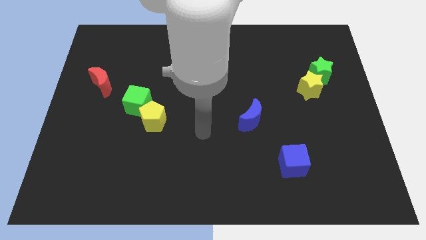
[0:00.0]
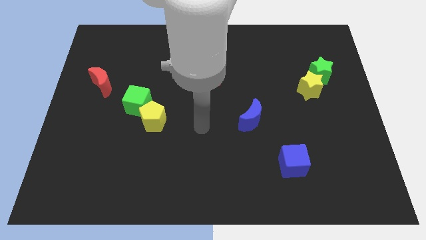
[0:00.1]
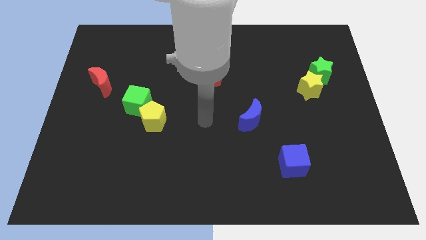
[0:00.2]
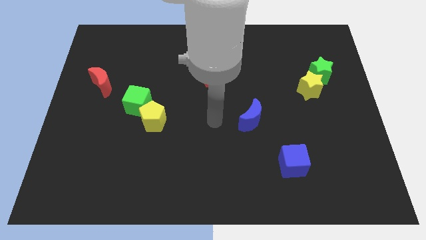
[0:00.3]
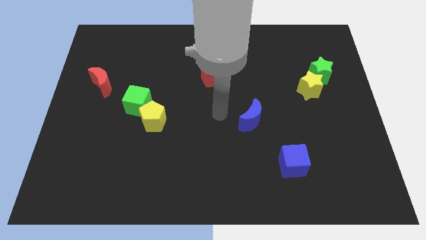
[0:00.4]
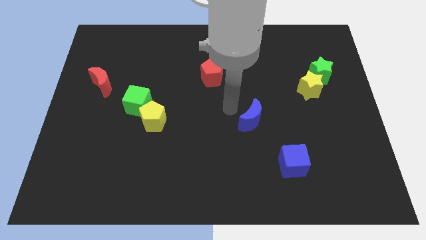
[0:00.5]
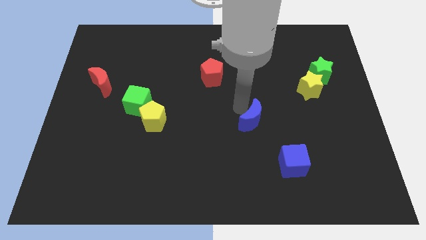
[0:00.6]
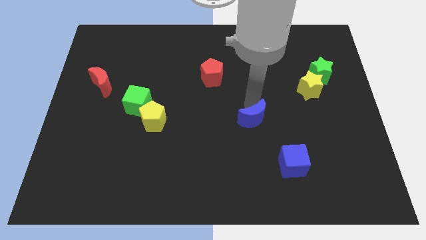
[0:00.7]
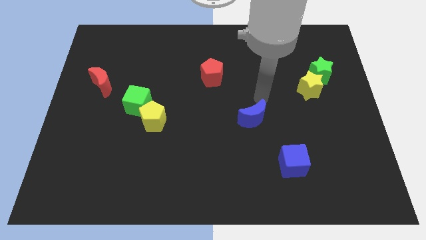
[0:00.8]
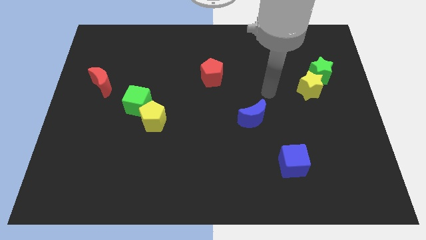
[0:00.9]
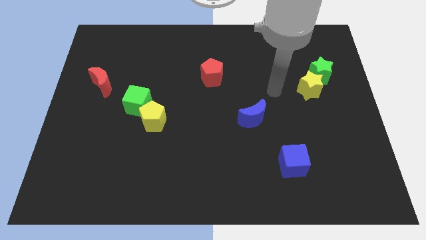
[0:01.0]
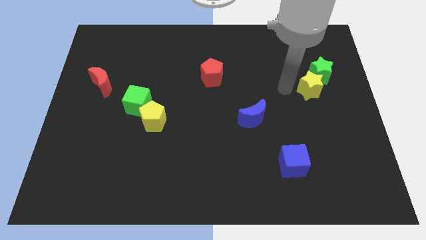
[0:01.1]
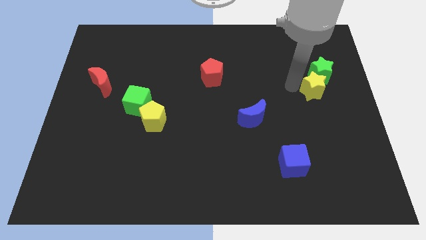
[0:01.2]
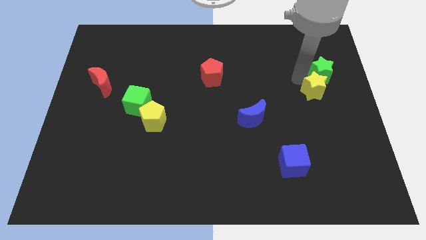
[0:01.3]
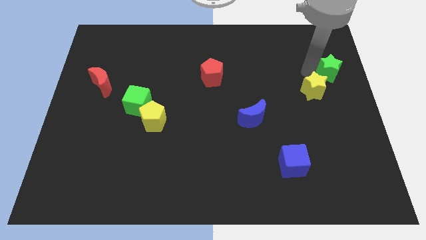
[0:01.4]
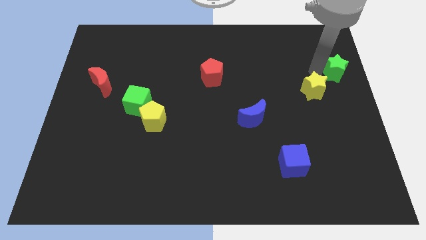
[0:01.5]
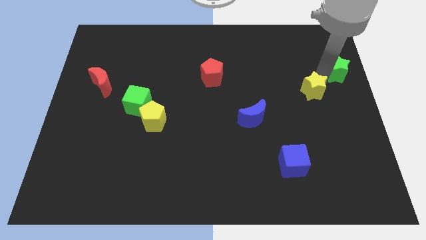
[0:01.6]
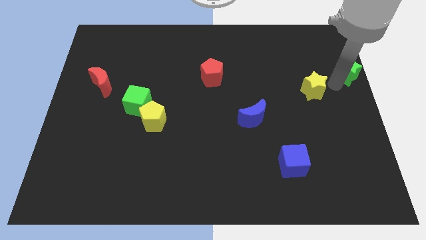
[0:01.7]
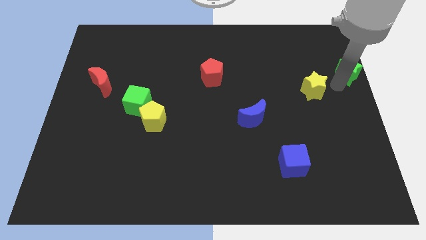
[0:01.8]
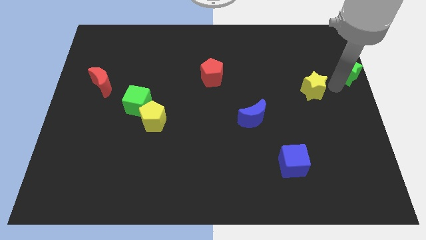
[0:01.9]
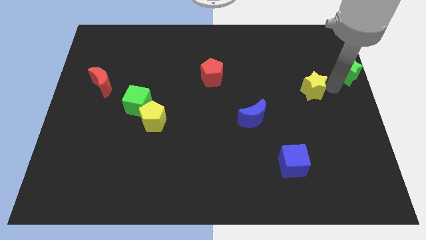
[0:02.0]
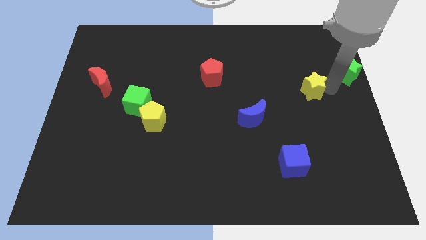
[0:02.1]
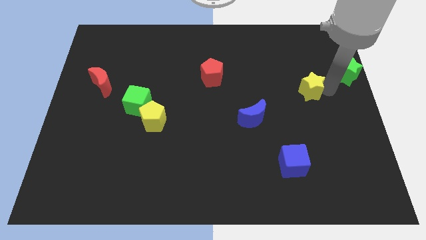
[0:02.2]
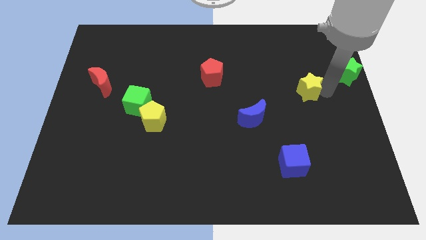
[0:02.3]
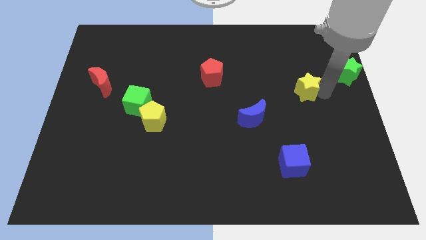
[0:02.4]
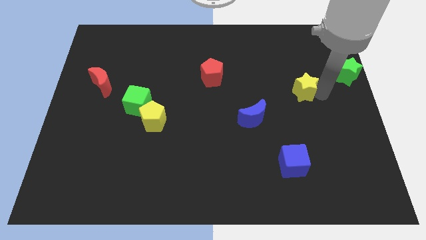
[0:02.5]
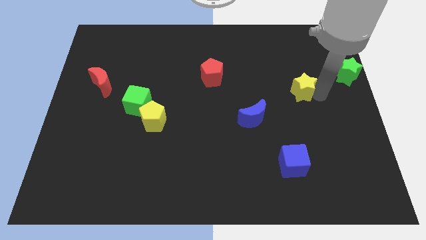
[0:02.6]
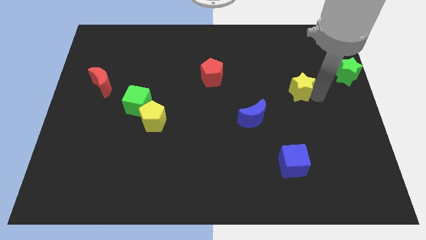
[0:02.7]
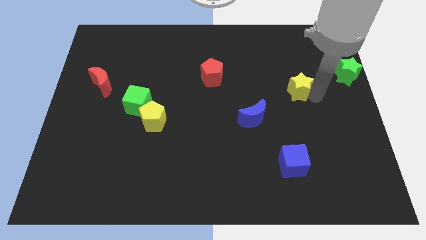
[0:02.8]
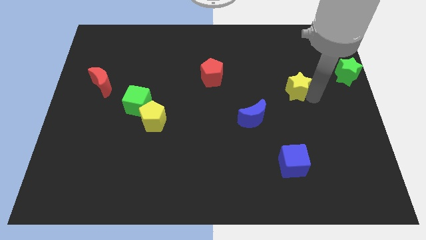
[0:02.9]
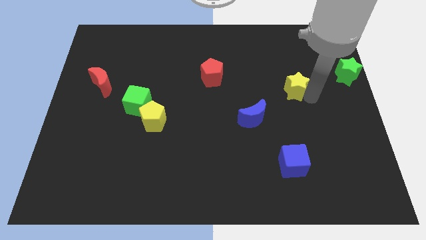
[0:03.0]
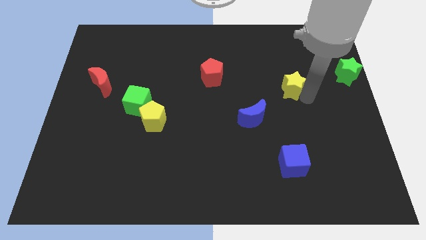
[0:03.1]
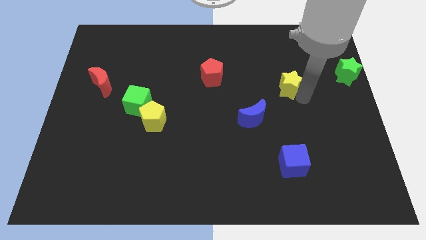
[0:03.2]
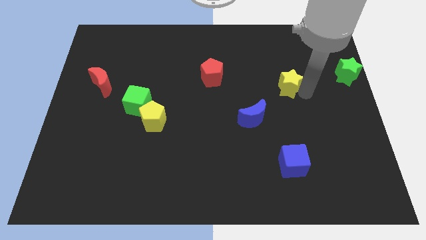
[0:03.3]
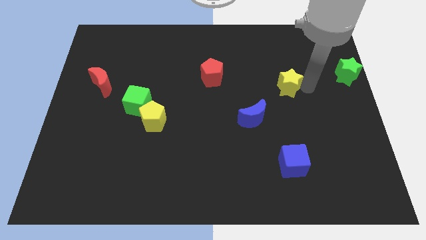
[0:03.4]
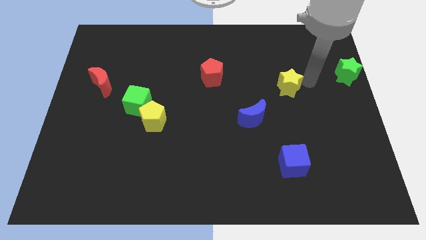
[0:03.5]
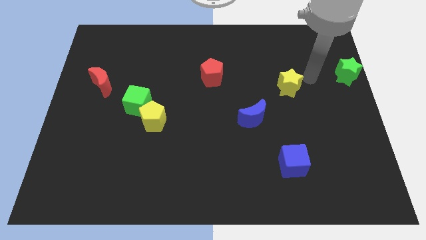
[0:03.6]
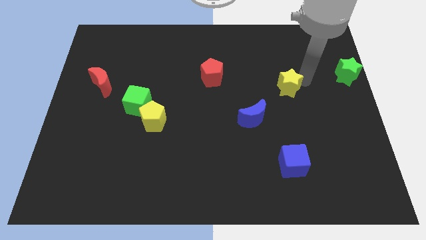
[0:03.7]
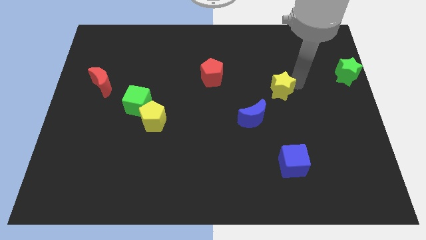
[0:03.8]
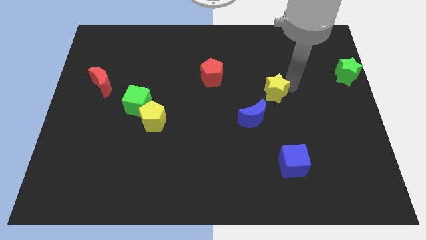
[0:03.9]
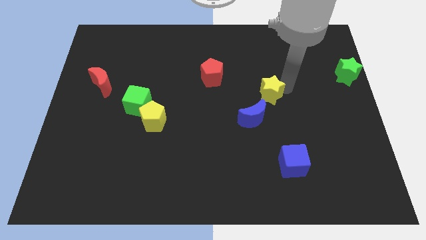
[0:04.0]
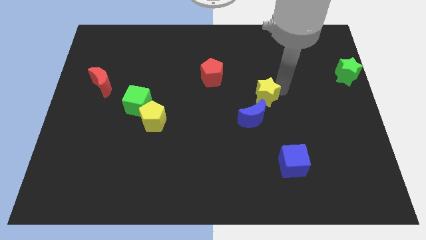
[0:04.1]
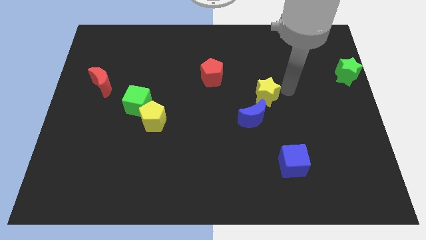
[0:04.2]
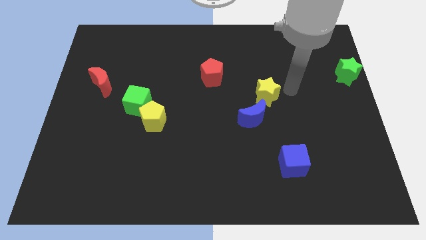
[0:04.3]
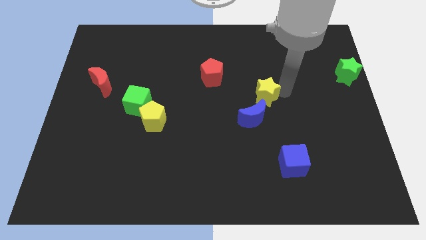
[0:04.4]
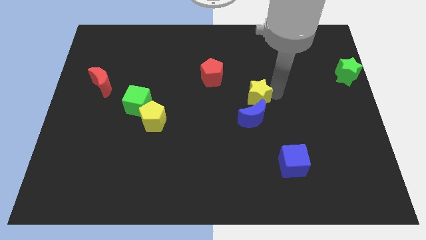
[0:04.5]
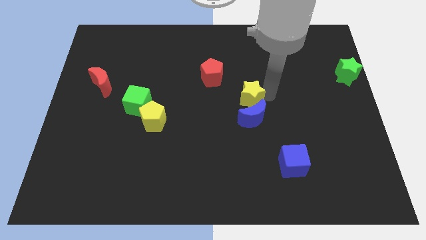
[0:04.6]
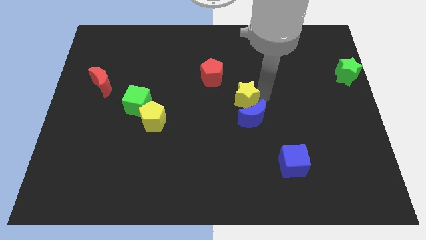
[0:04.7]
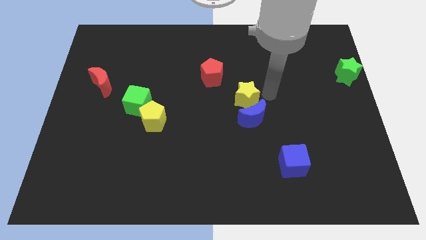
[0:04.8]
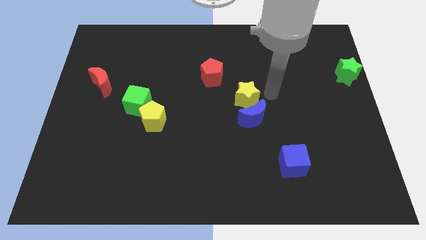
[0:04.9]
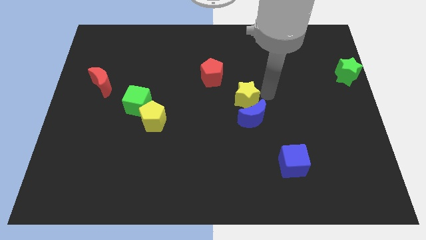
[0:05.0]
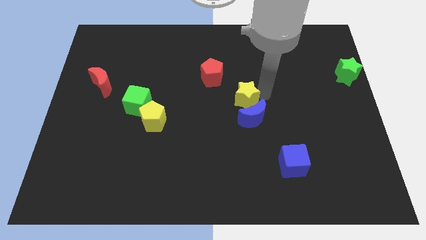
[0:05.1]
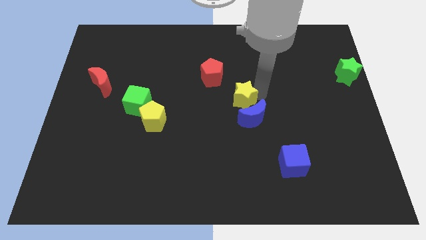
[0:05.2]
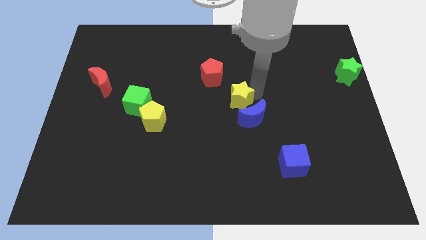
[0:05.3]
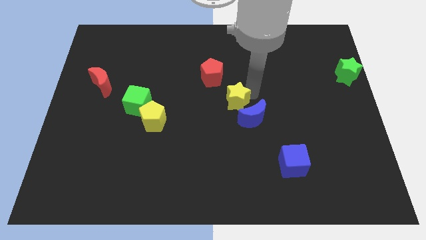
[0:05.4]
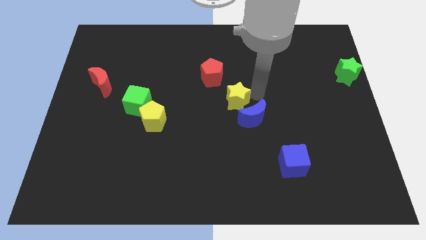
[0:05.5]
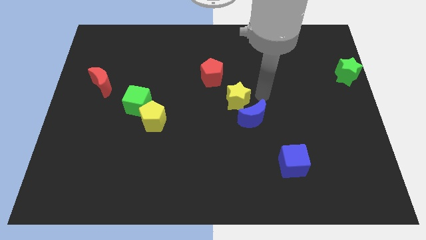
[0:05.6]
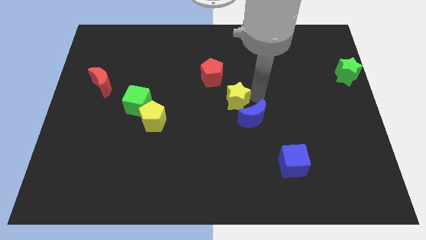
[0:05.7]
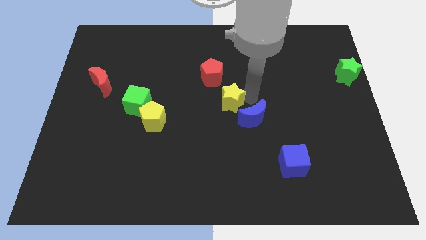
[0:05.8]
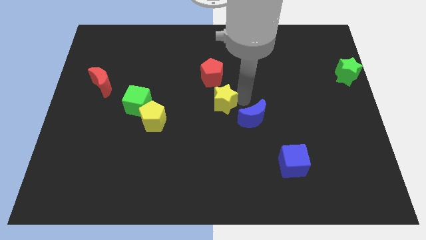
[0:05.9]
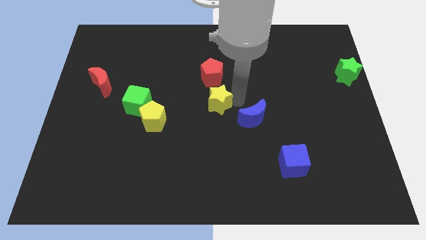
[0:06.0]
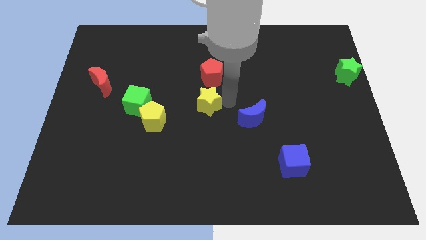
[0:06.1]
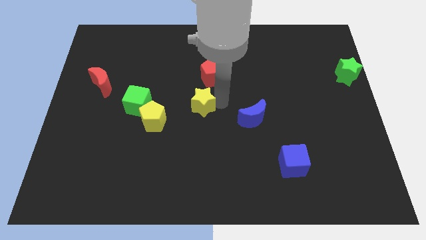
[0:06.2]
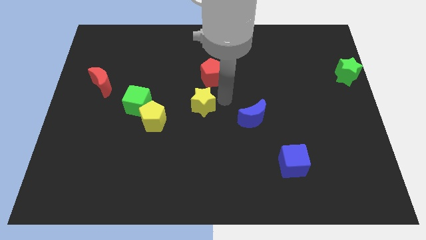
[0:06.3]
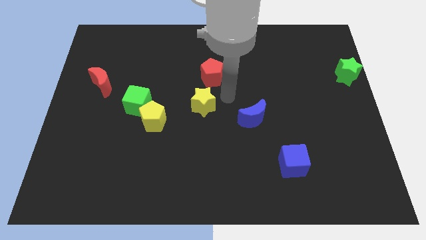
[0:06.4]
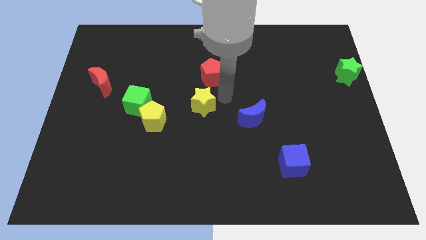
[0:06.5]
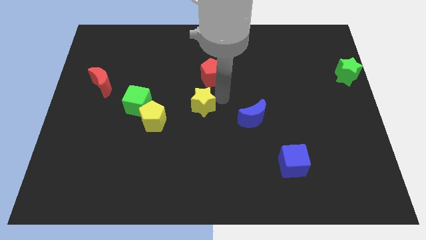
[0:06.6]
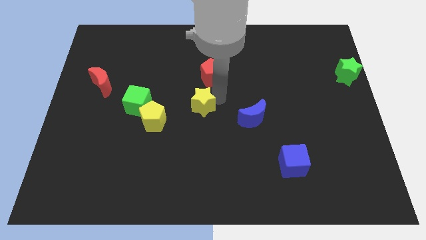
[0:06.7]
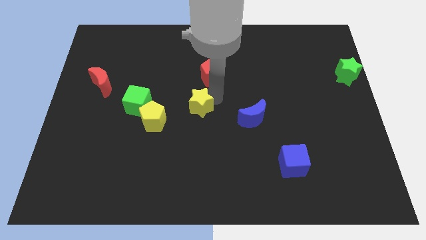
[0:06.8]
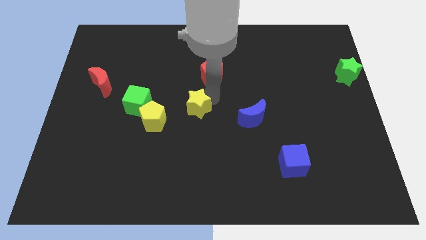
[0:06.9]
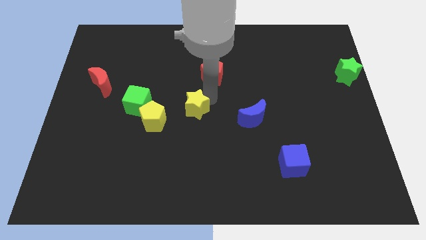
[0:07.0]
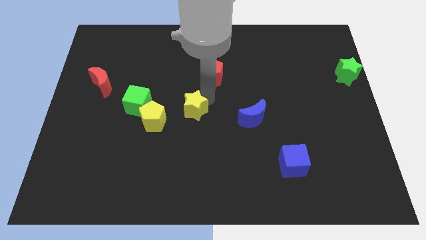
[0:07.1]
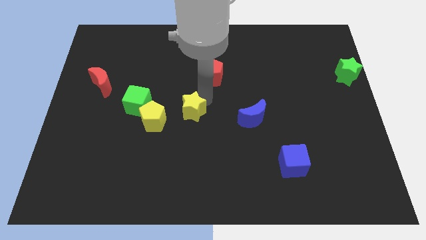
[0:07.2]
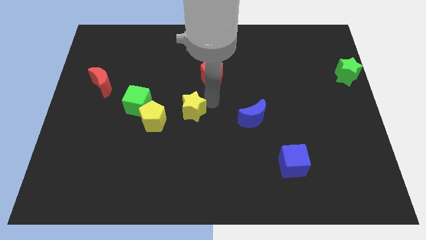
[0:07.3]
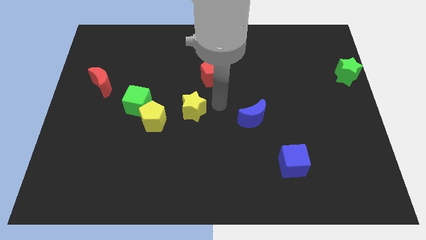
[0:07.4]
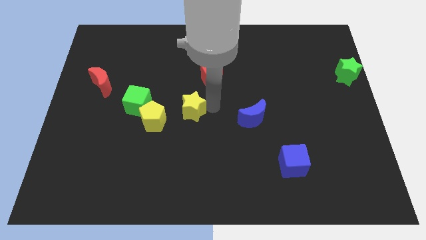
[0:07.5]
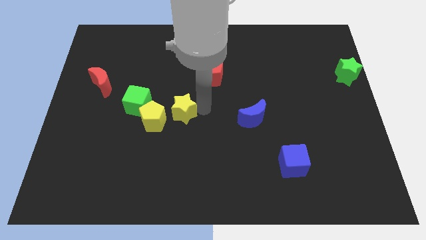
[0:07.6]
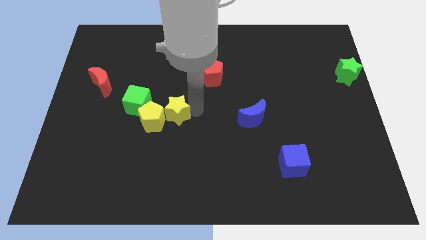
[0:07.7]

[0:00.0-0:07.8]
push the yellow star towards the yellow pentagon
